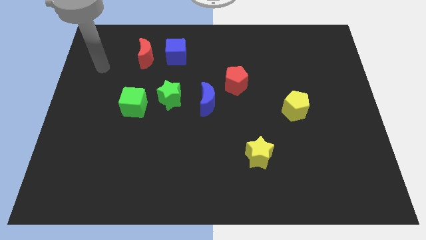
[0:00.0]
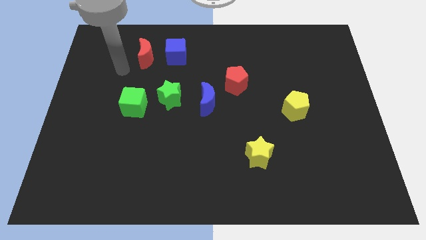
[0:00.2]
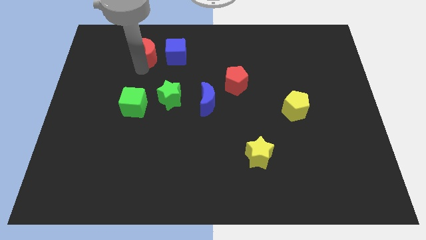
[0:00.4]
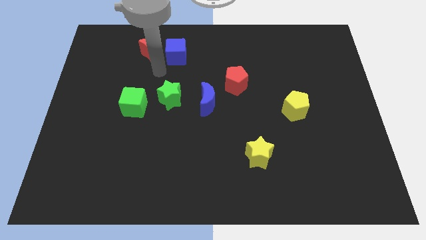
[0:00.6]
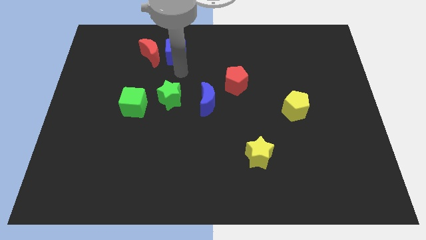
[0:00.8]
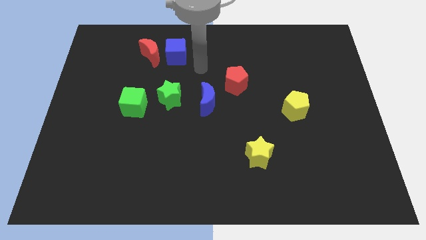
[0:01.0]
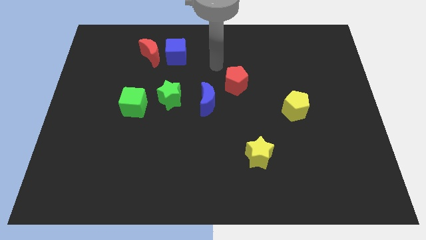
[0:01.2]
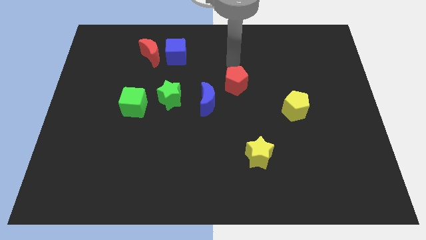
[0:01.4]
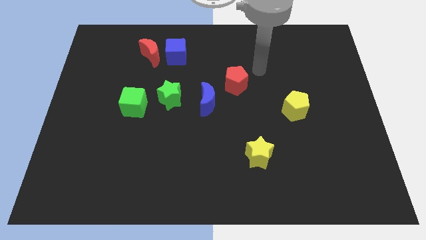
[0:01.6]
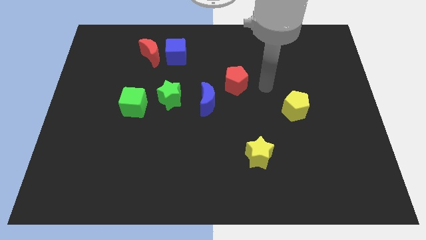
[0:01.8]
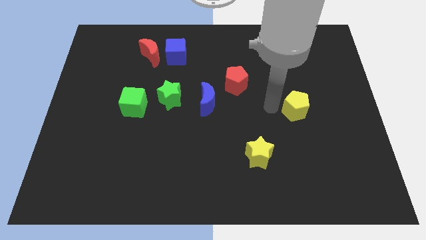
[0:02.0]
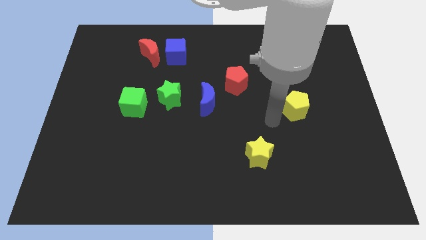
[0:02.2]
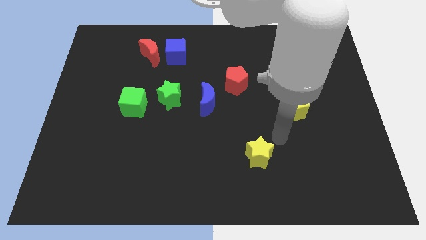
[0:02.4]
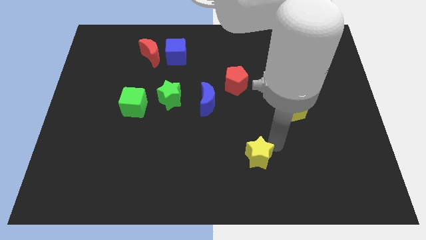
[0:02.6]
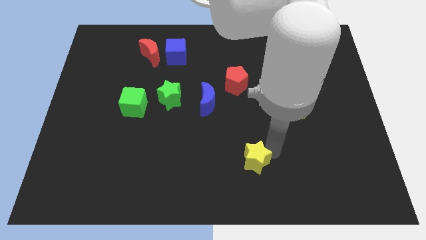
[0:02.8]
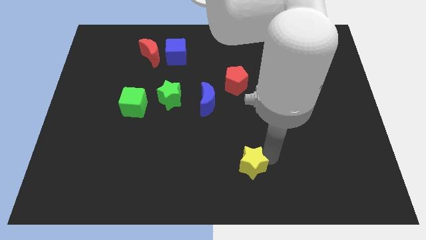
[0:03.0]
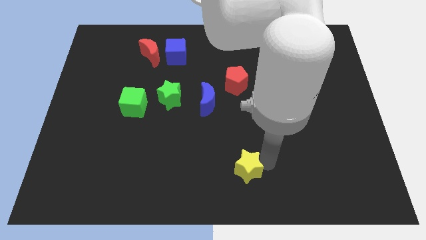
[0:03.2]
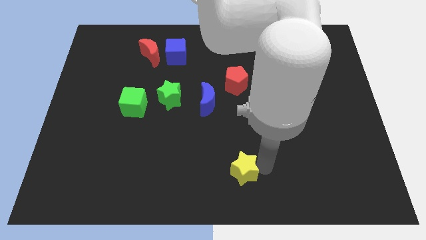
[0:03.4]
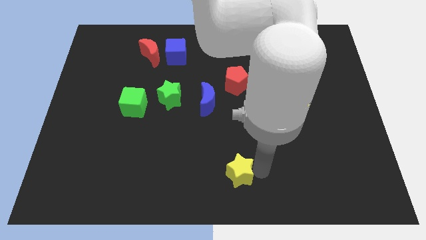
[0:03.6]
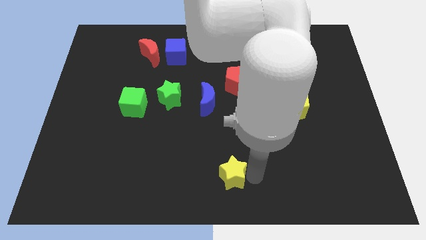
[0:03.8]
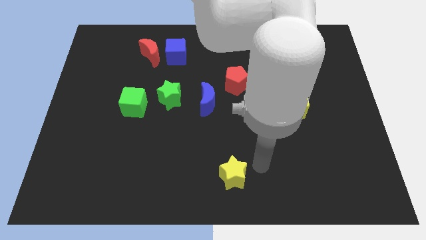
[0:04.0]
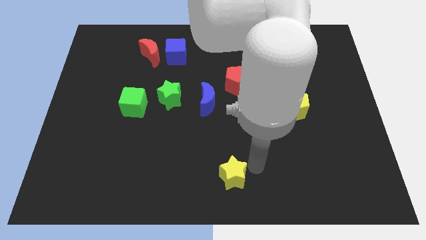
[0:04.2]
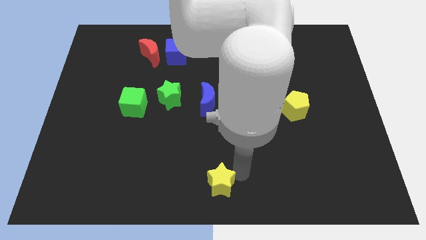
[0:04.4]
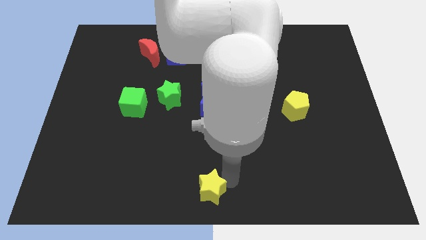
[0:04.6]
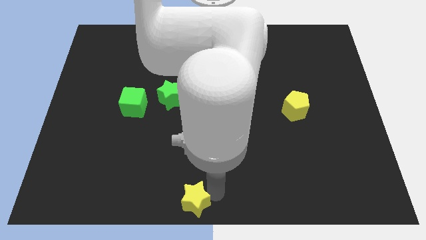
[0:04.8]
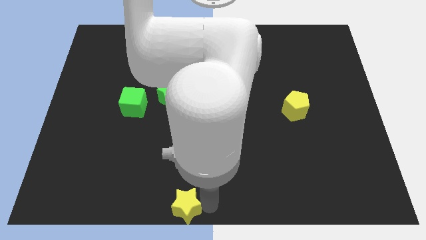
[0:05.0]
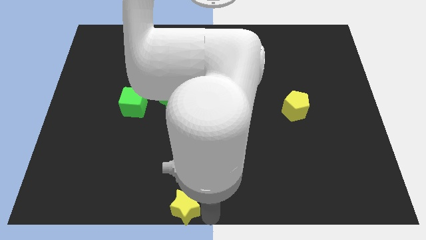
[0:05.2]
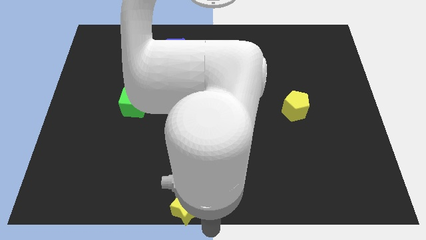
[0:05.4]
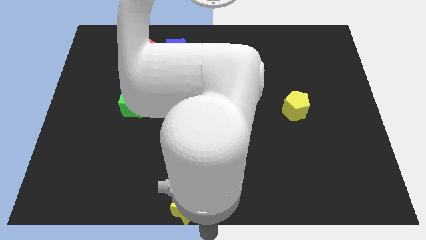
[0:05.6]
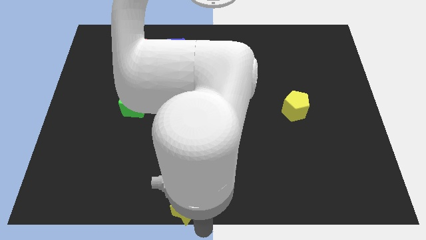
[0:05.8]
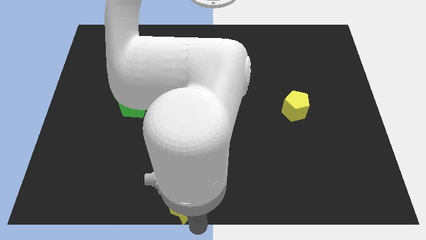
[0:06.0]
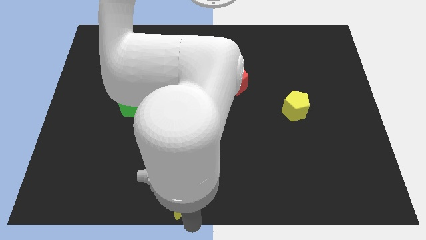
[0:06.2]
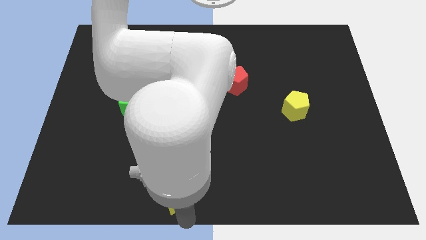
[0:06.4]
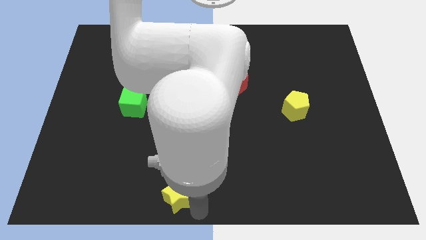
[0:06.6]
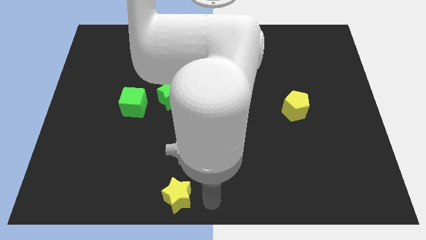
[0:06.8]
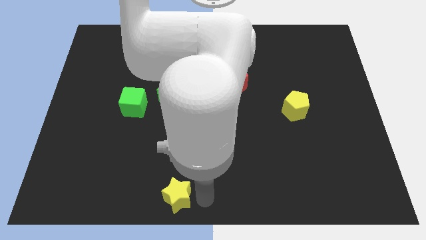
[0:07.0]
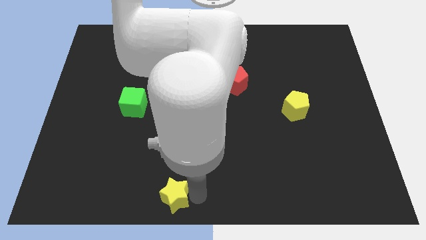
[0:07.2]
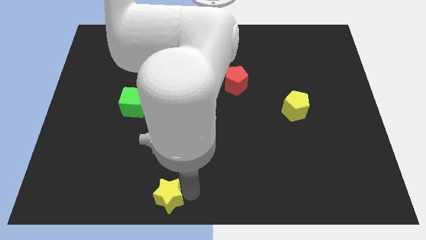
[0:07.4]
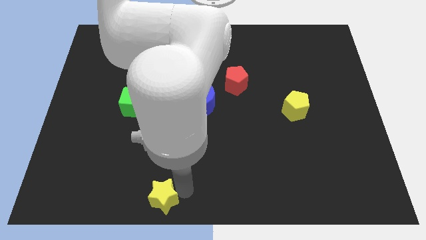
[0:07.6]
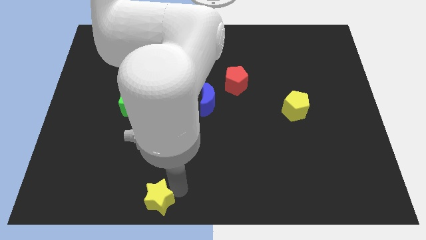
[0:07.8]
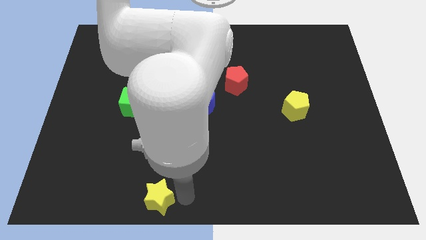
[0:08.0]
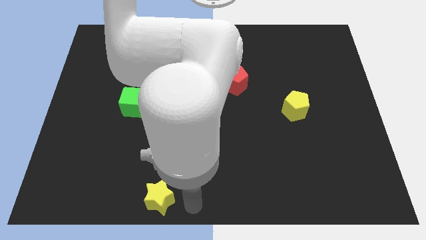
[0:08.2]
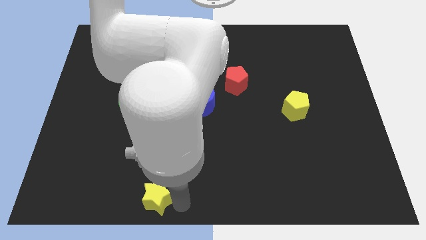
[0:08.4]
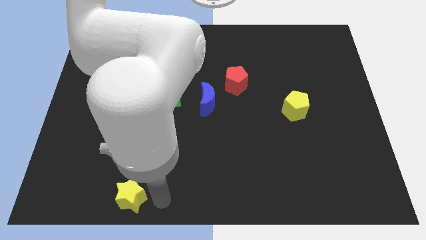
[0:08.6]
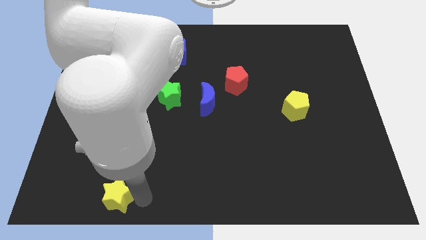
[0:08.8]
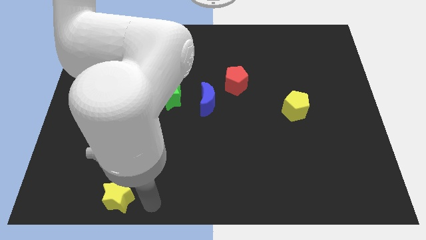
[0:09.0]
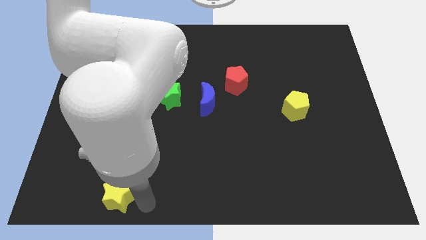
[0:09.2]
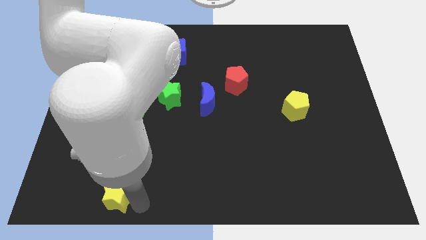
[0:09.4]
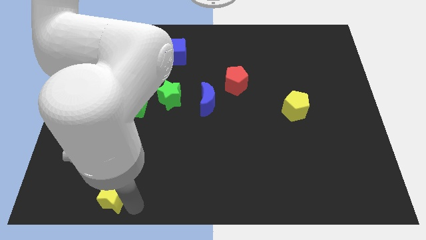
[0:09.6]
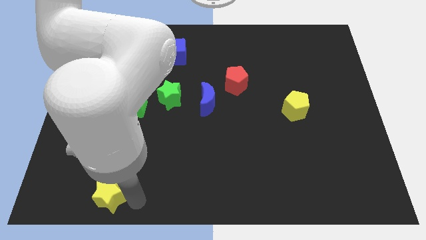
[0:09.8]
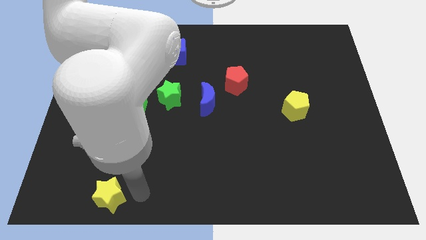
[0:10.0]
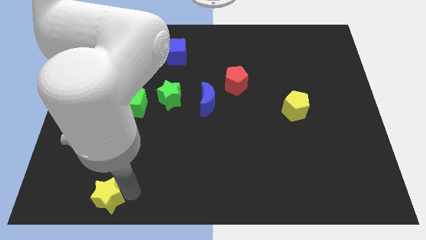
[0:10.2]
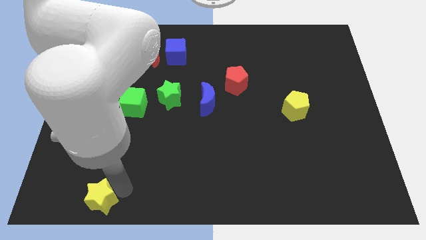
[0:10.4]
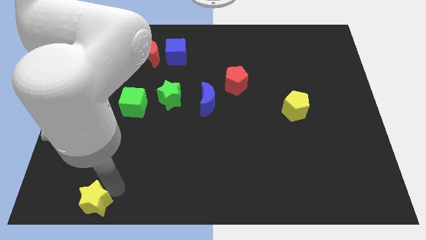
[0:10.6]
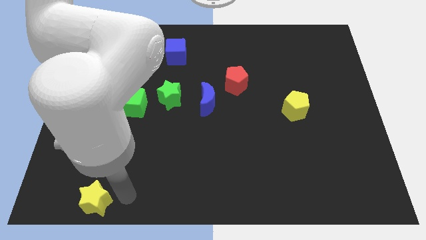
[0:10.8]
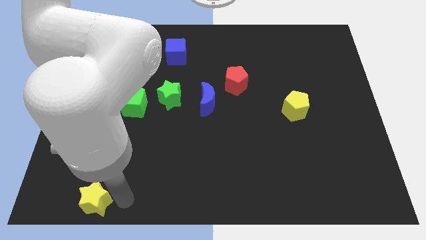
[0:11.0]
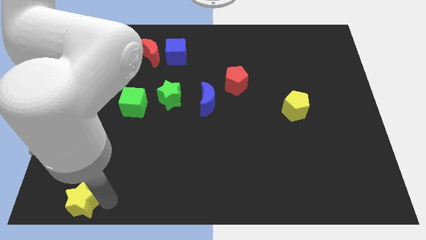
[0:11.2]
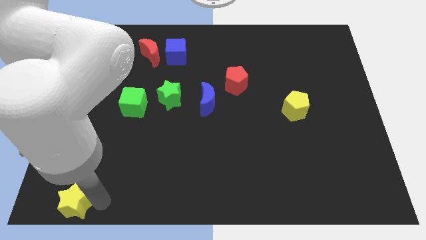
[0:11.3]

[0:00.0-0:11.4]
move the yellow star to the lower left corner
